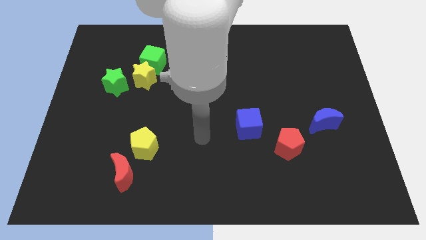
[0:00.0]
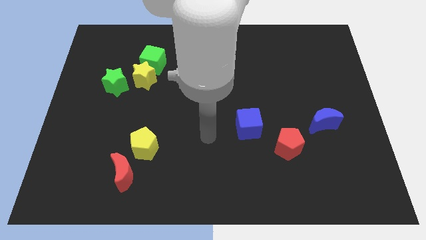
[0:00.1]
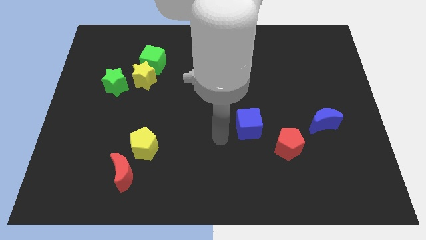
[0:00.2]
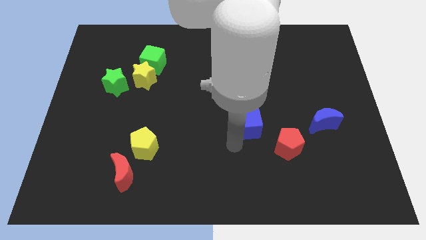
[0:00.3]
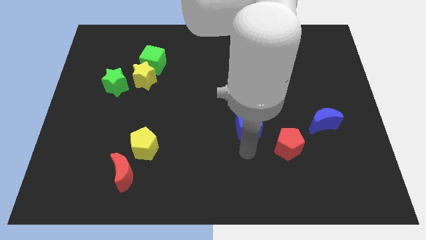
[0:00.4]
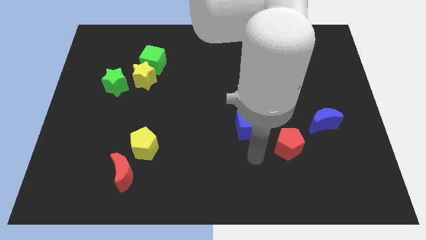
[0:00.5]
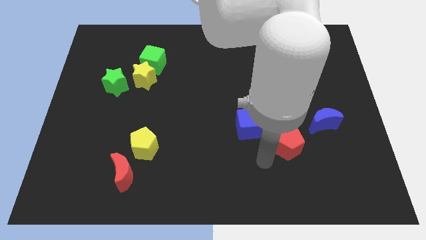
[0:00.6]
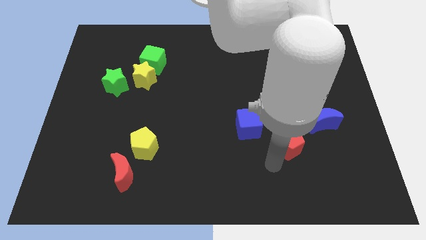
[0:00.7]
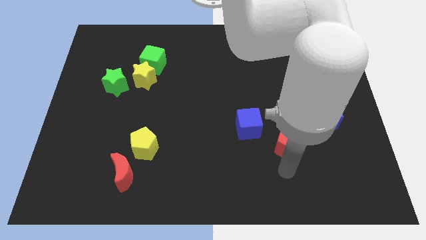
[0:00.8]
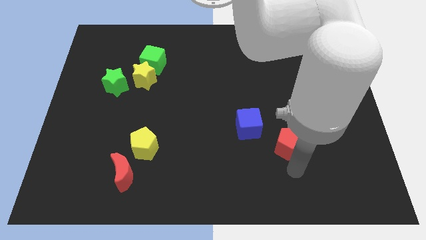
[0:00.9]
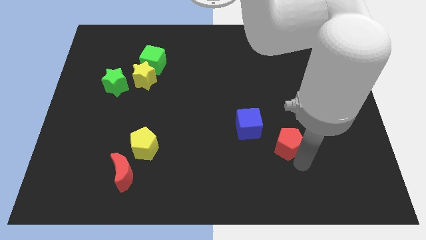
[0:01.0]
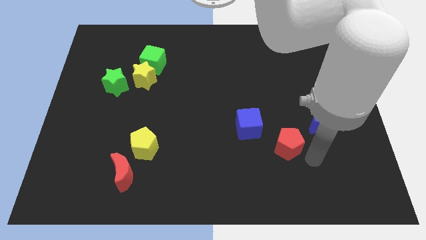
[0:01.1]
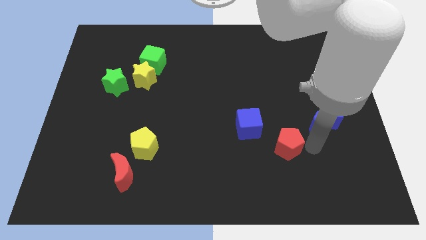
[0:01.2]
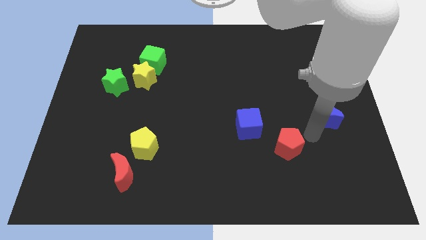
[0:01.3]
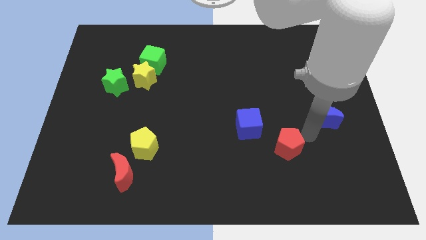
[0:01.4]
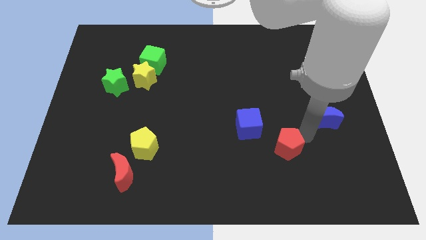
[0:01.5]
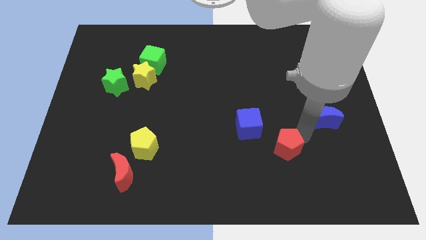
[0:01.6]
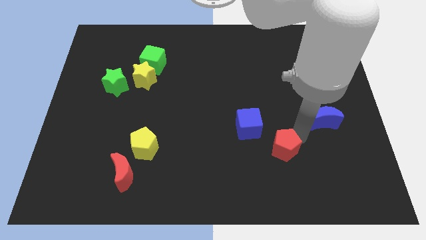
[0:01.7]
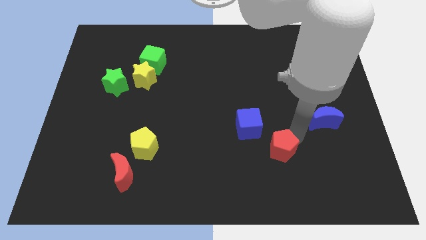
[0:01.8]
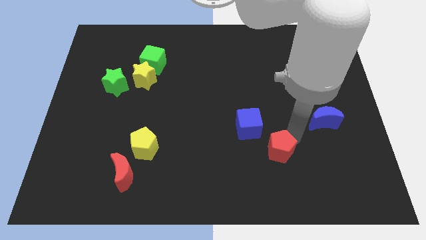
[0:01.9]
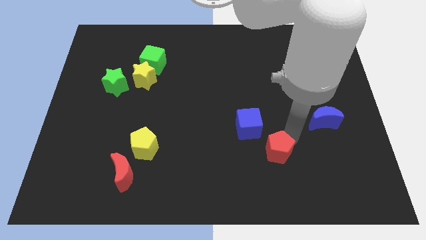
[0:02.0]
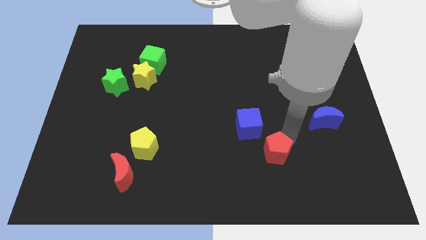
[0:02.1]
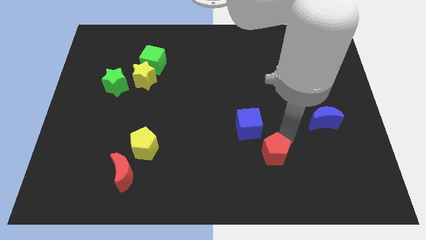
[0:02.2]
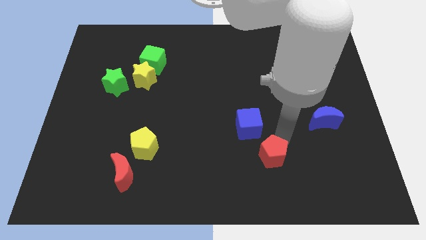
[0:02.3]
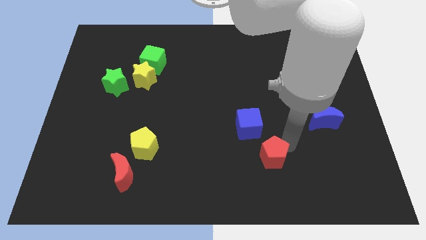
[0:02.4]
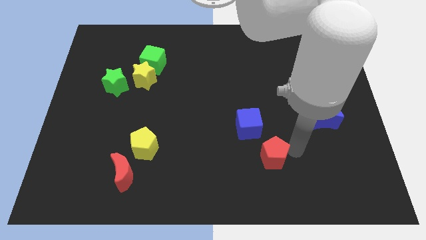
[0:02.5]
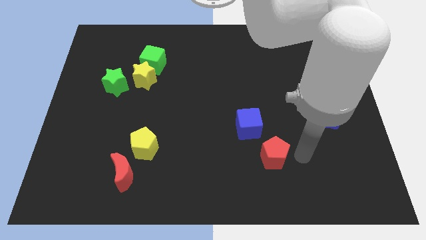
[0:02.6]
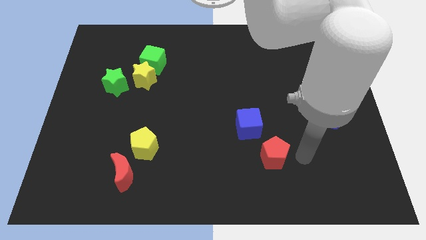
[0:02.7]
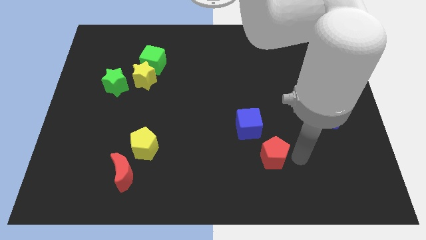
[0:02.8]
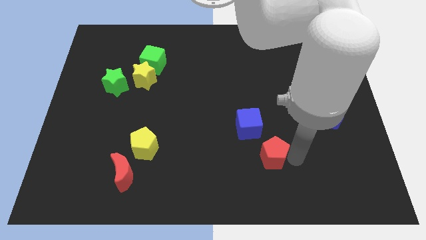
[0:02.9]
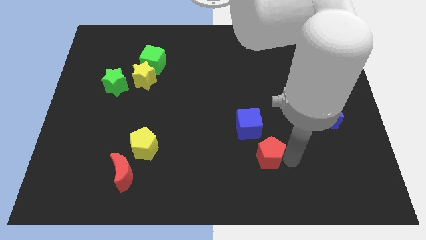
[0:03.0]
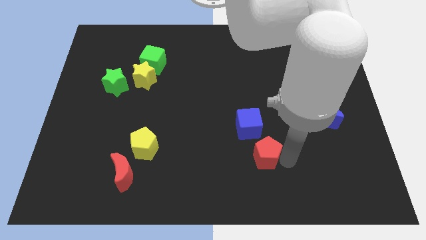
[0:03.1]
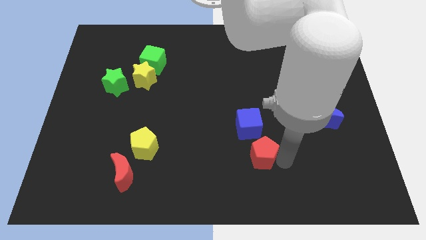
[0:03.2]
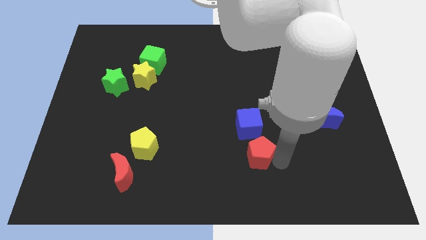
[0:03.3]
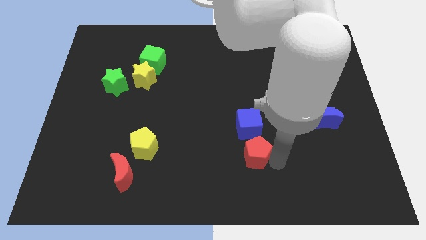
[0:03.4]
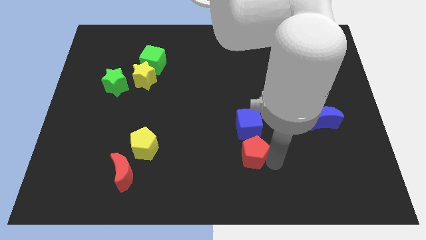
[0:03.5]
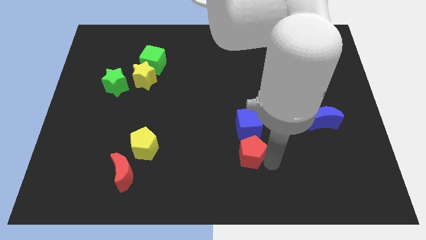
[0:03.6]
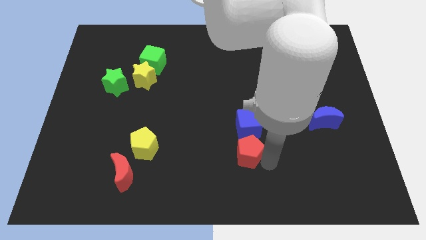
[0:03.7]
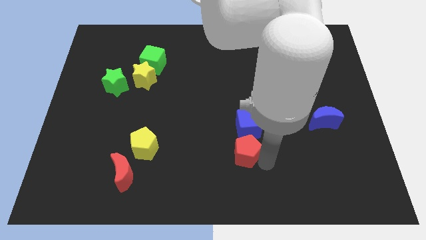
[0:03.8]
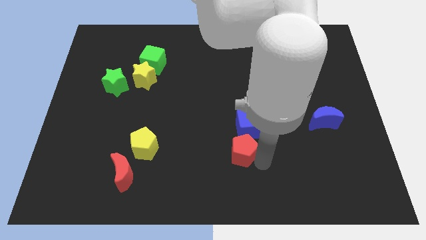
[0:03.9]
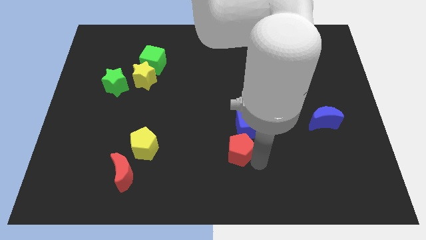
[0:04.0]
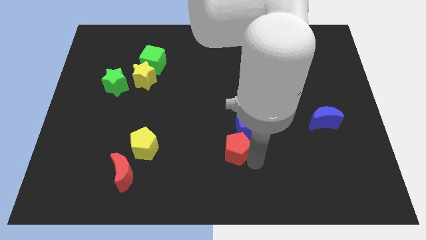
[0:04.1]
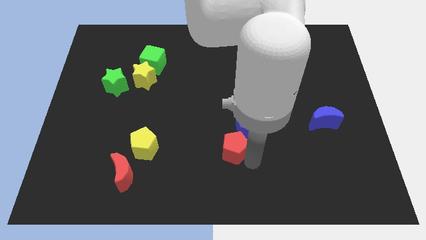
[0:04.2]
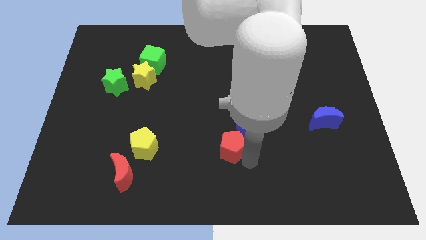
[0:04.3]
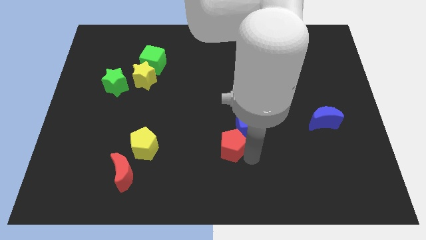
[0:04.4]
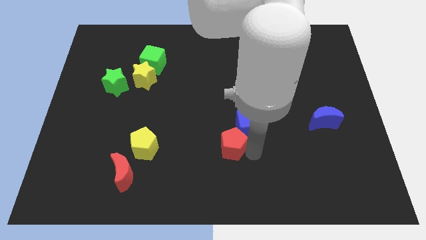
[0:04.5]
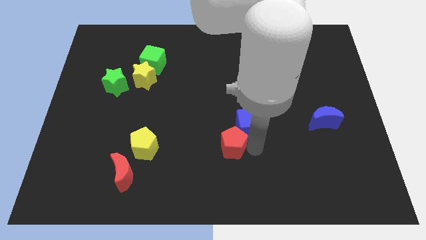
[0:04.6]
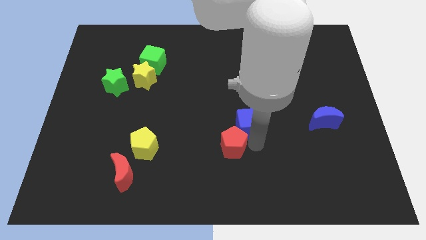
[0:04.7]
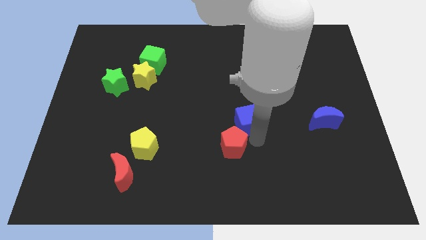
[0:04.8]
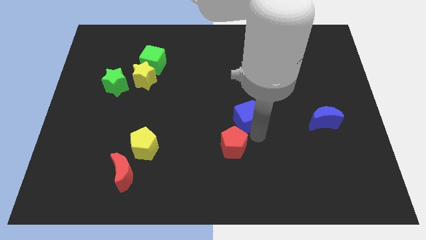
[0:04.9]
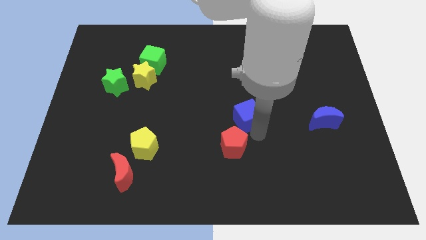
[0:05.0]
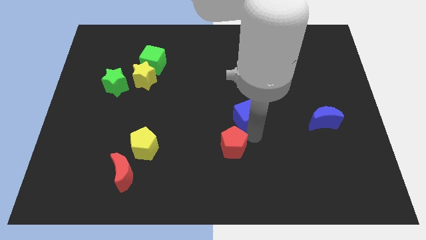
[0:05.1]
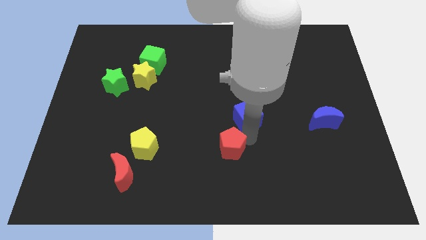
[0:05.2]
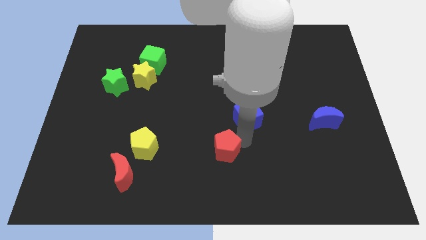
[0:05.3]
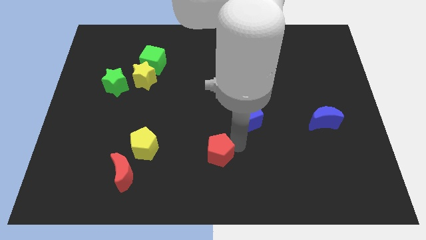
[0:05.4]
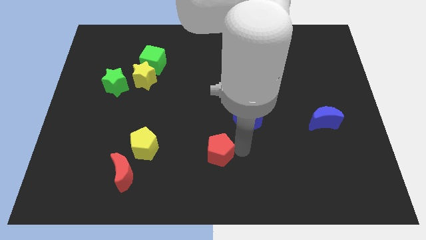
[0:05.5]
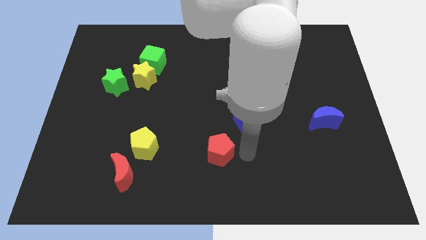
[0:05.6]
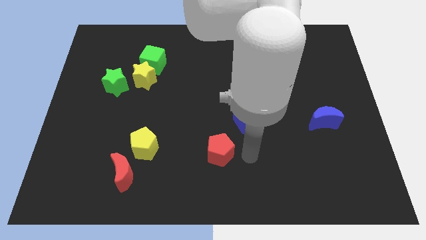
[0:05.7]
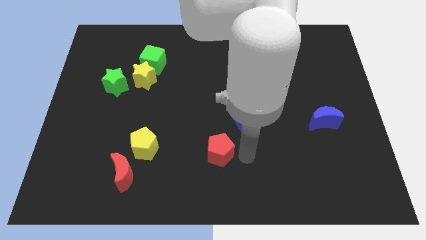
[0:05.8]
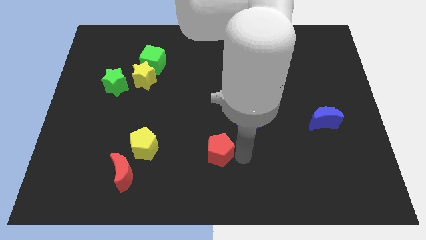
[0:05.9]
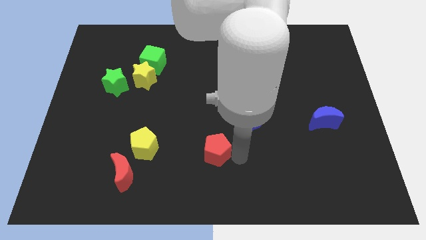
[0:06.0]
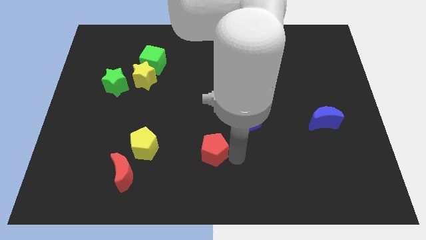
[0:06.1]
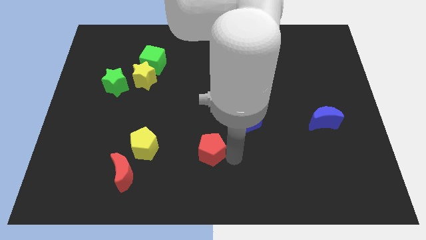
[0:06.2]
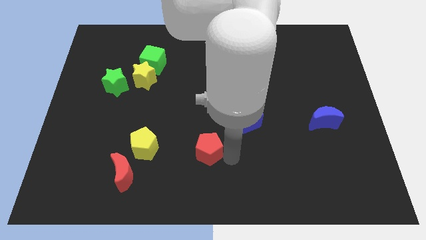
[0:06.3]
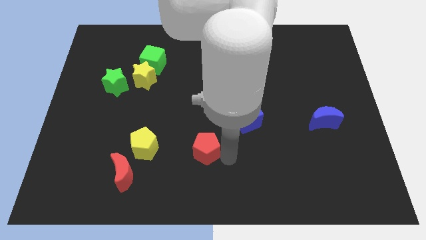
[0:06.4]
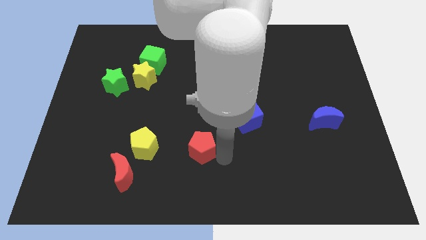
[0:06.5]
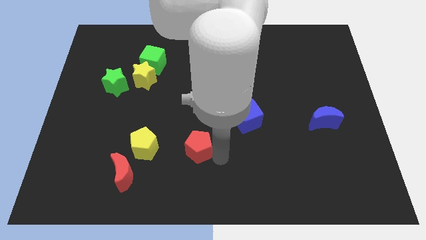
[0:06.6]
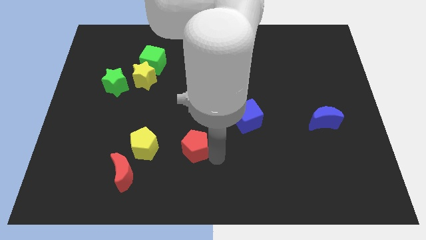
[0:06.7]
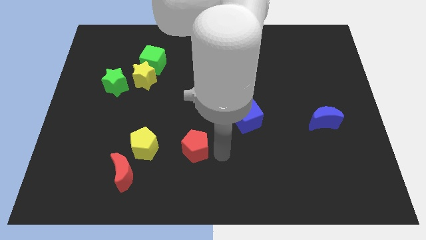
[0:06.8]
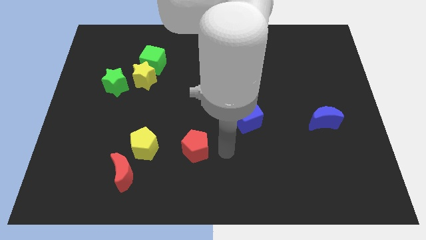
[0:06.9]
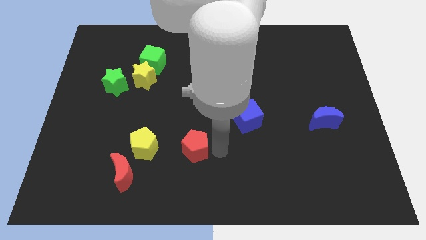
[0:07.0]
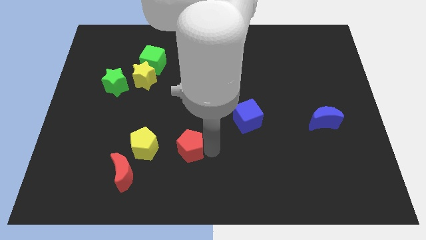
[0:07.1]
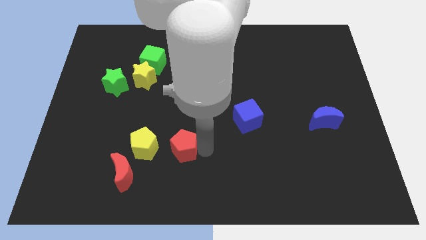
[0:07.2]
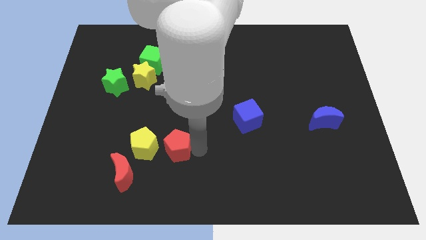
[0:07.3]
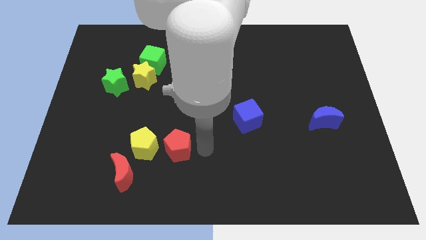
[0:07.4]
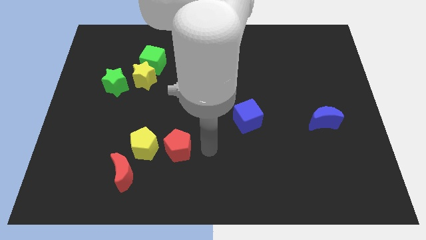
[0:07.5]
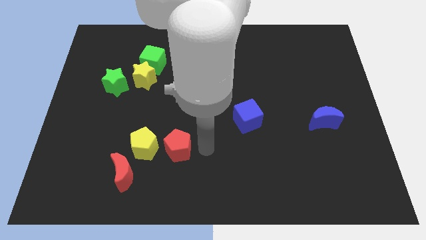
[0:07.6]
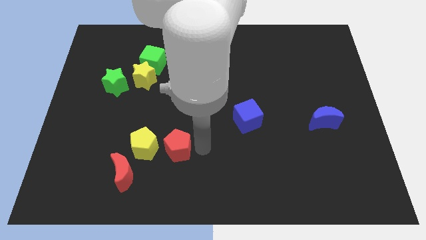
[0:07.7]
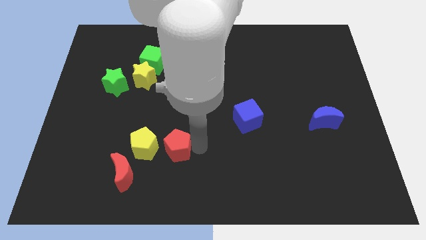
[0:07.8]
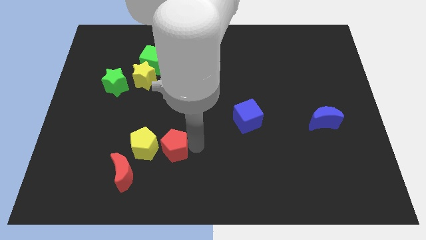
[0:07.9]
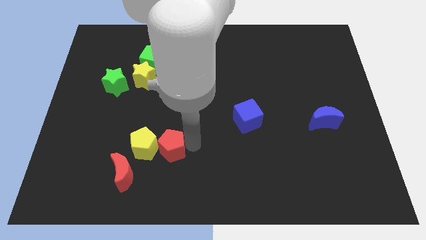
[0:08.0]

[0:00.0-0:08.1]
move the red pentagon close to the yellow pentagon
